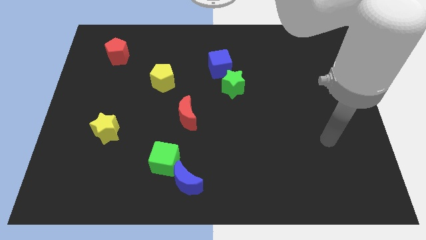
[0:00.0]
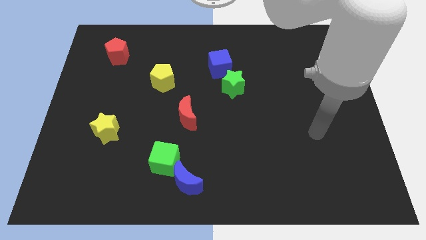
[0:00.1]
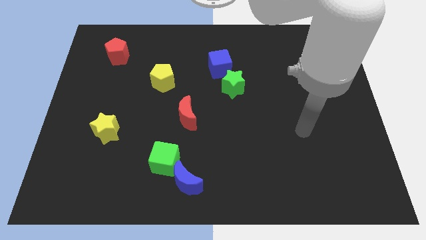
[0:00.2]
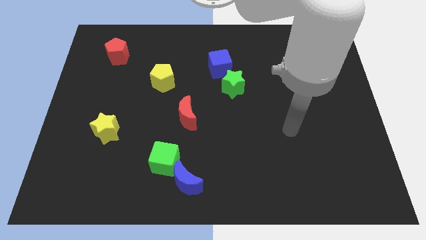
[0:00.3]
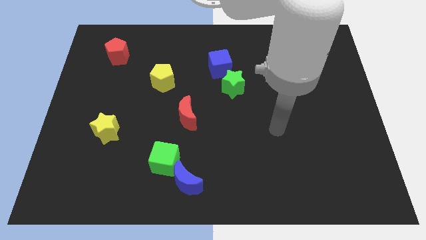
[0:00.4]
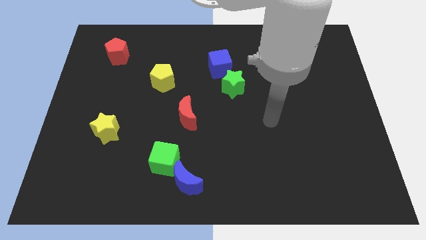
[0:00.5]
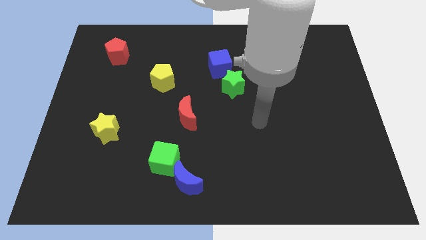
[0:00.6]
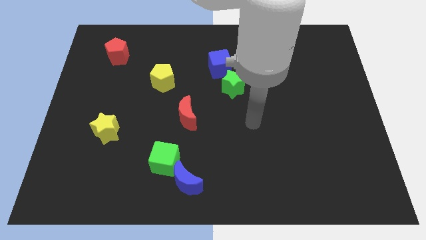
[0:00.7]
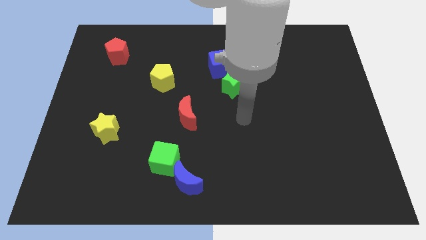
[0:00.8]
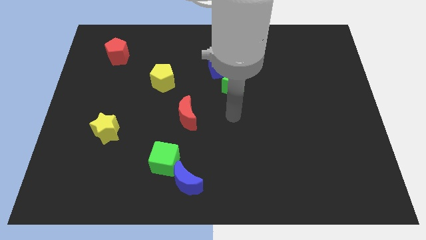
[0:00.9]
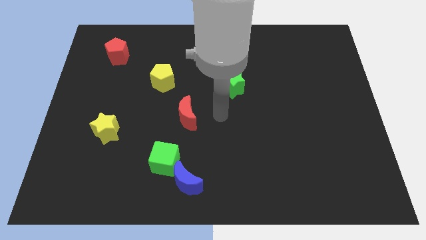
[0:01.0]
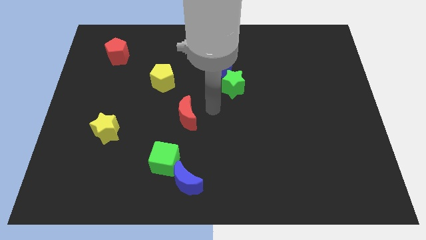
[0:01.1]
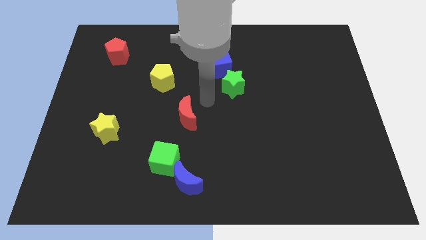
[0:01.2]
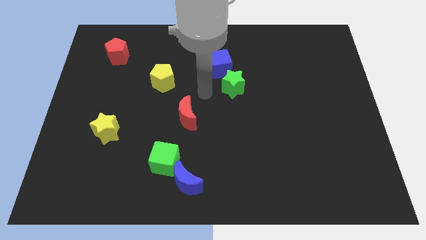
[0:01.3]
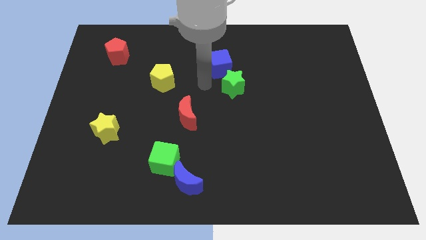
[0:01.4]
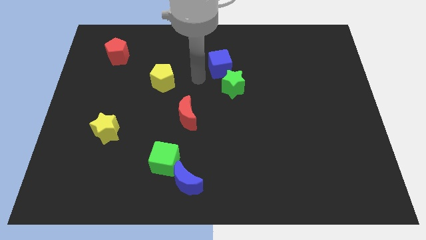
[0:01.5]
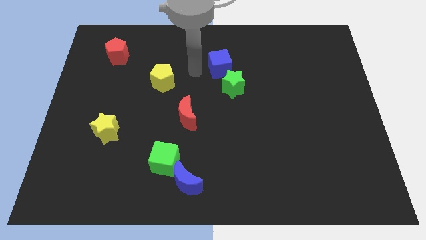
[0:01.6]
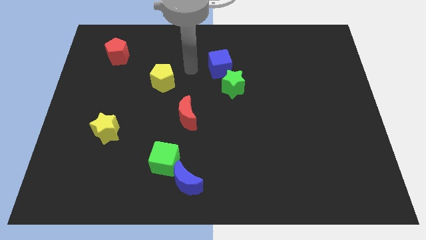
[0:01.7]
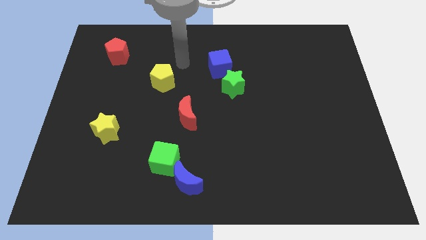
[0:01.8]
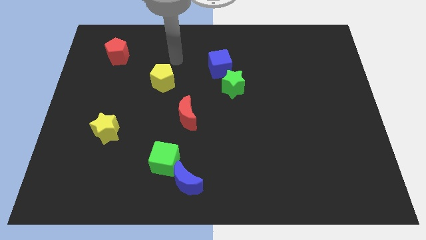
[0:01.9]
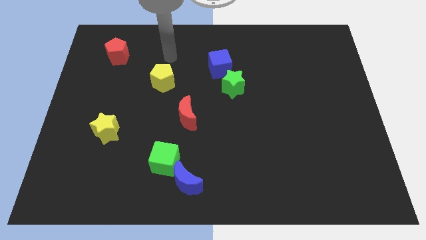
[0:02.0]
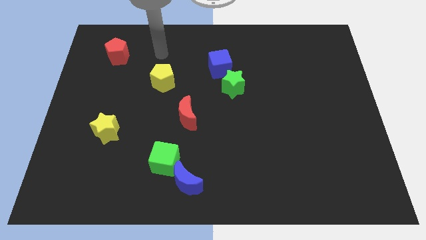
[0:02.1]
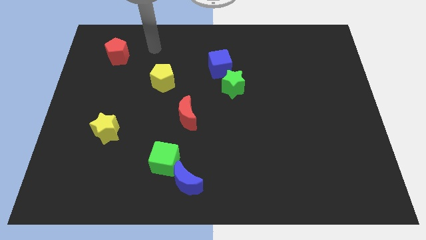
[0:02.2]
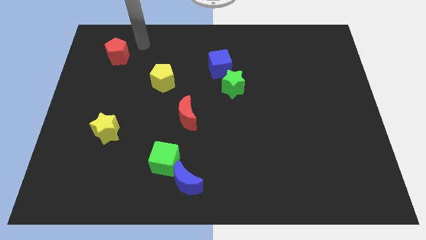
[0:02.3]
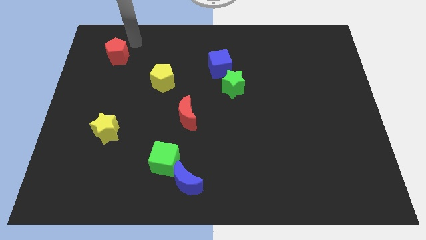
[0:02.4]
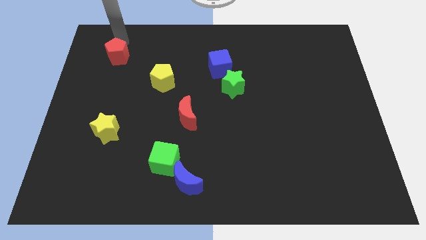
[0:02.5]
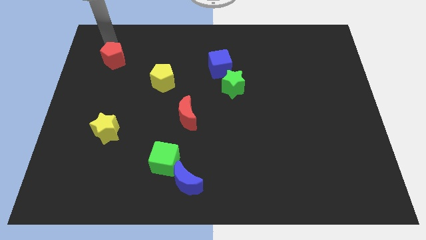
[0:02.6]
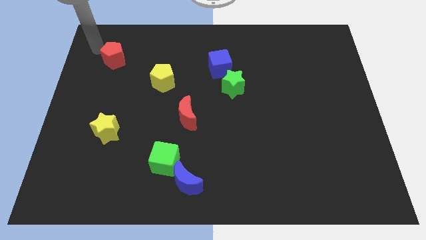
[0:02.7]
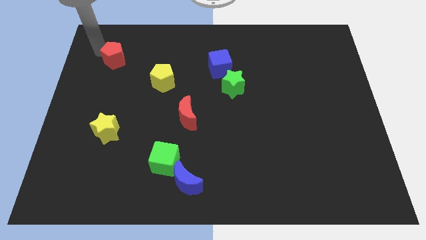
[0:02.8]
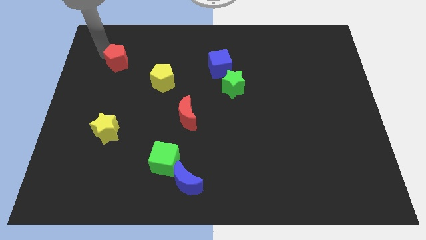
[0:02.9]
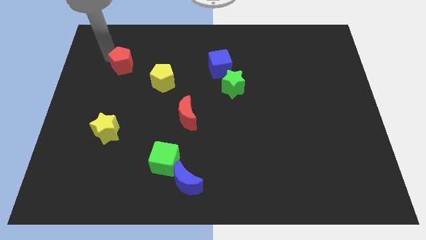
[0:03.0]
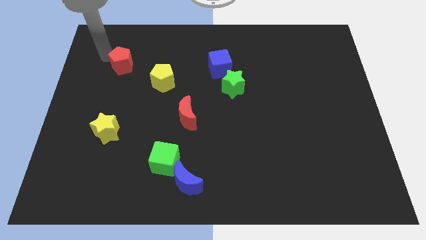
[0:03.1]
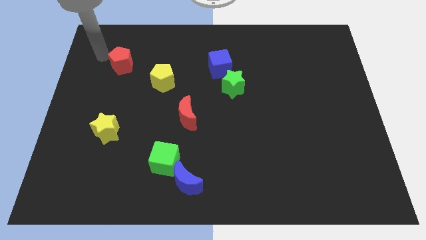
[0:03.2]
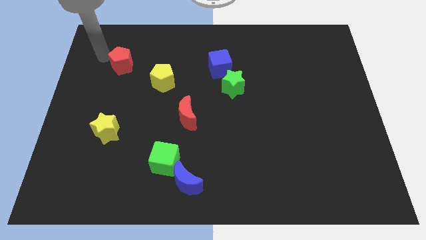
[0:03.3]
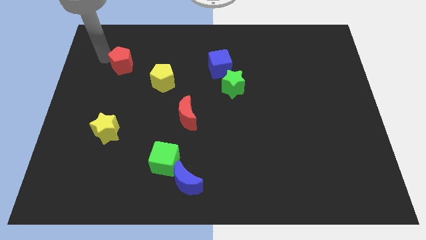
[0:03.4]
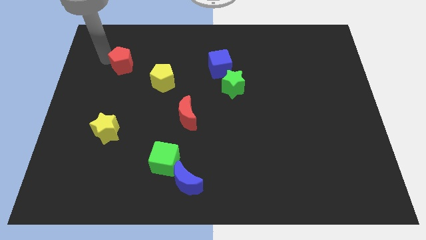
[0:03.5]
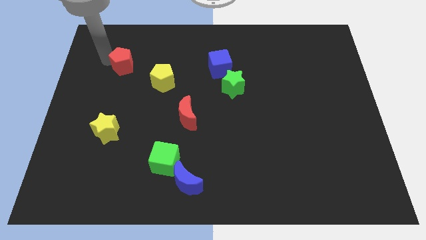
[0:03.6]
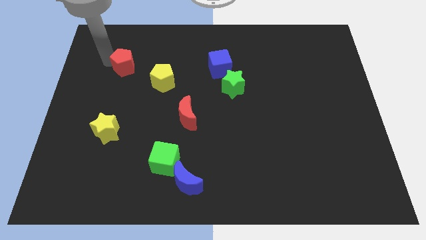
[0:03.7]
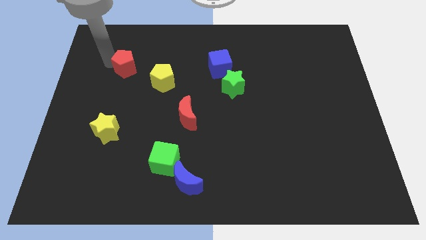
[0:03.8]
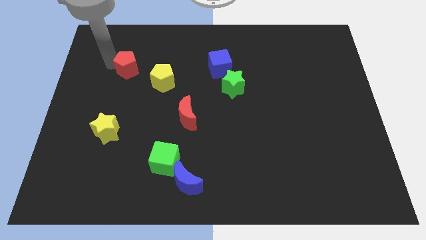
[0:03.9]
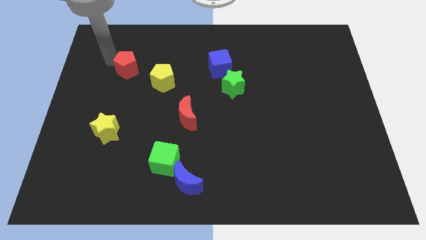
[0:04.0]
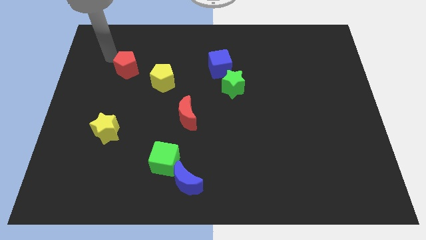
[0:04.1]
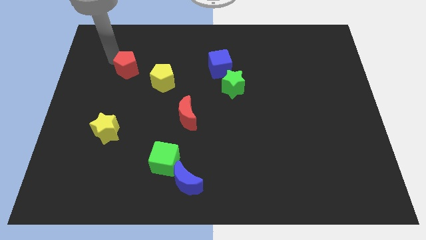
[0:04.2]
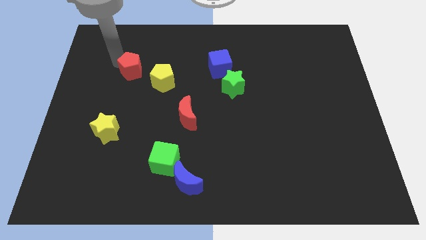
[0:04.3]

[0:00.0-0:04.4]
push the red pentagon a little down and then right

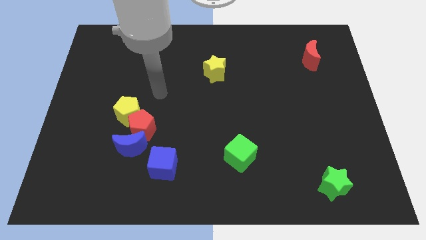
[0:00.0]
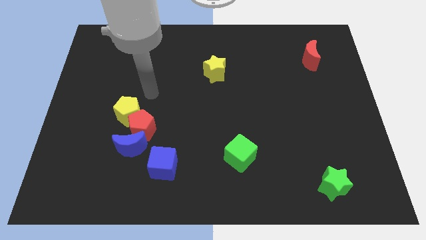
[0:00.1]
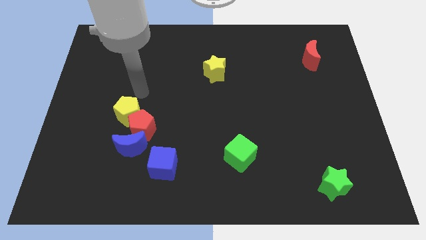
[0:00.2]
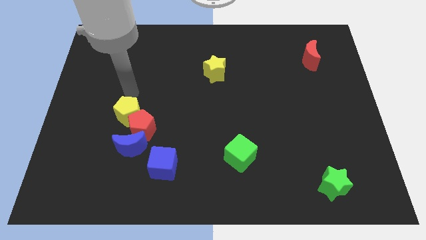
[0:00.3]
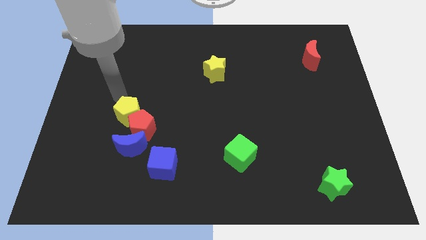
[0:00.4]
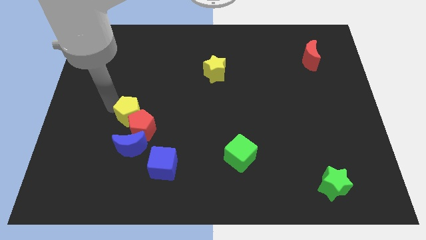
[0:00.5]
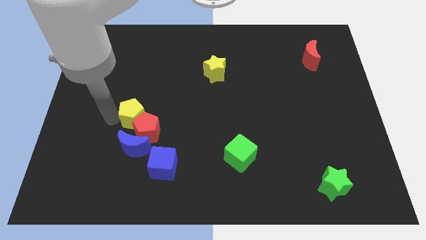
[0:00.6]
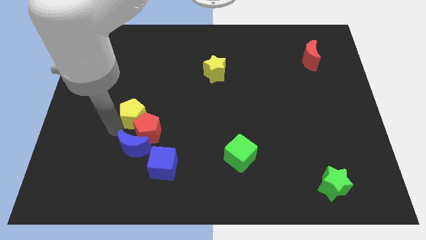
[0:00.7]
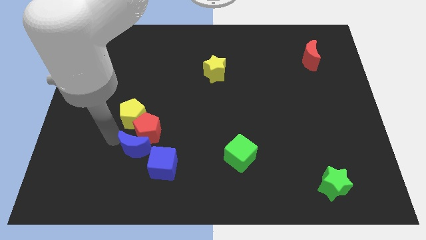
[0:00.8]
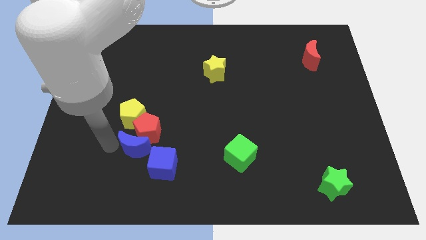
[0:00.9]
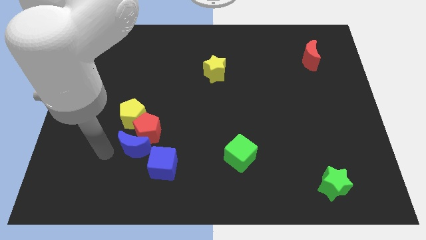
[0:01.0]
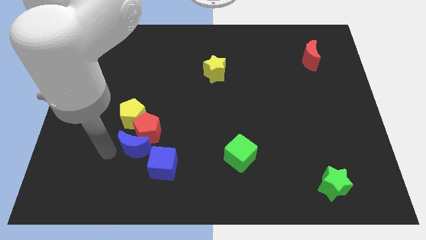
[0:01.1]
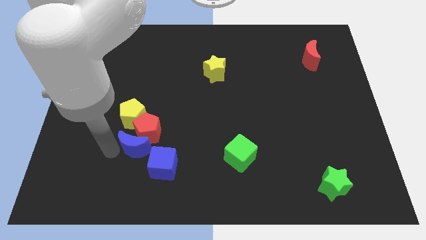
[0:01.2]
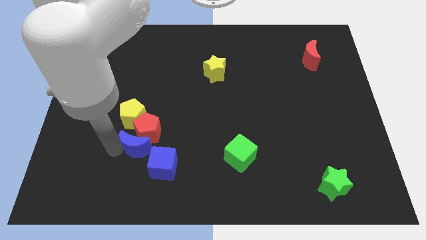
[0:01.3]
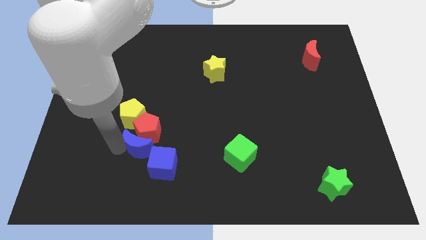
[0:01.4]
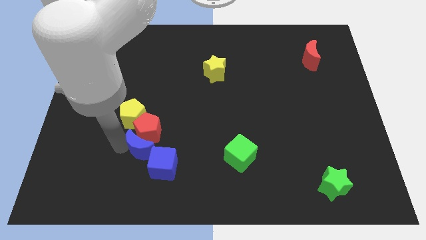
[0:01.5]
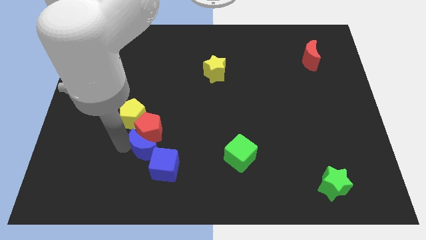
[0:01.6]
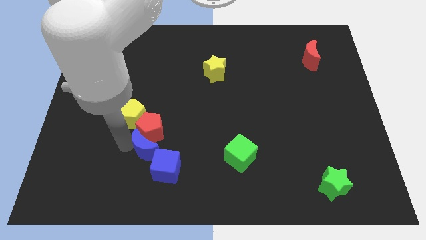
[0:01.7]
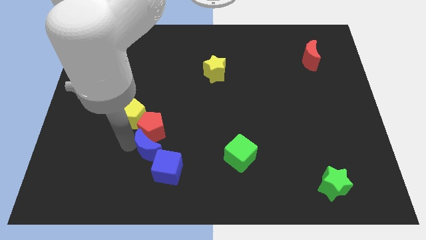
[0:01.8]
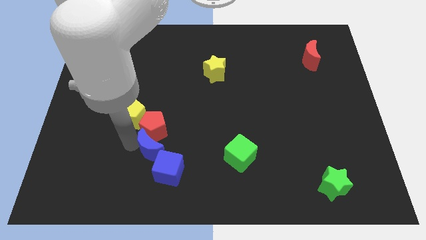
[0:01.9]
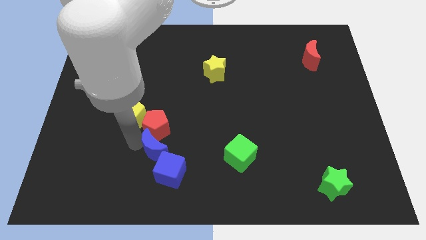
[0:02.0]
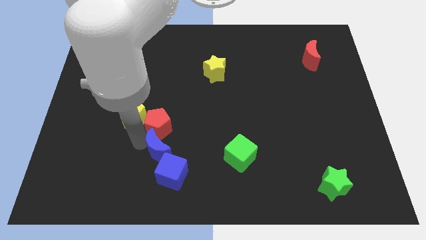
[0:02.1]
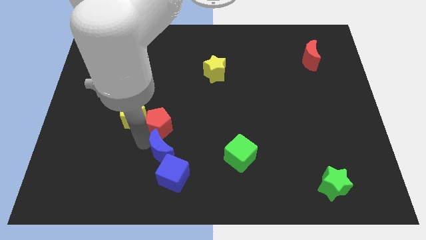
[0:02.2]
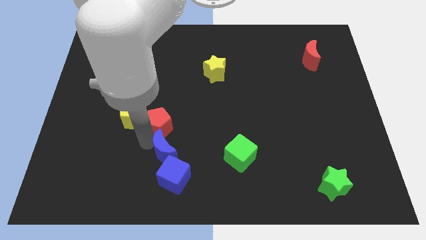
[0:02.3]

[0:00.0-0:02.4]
slide the blue moon somewhat to the right

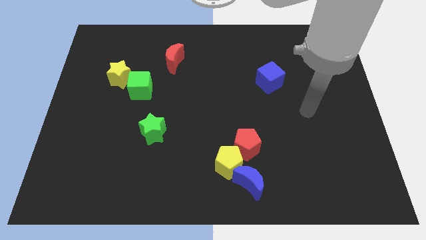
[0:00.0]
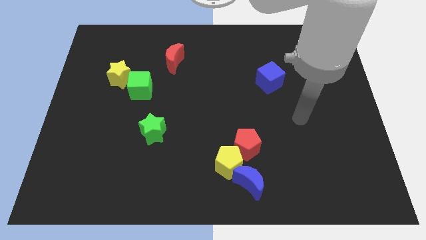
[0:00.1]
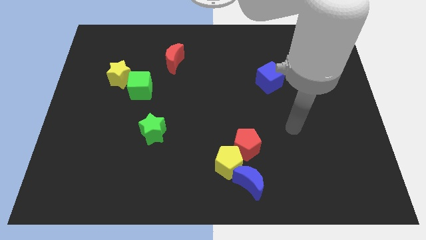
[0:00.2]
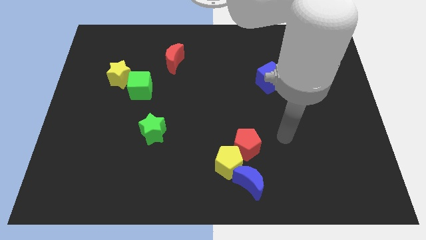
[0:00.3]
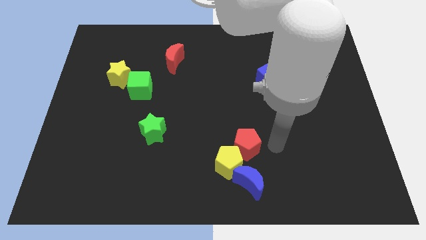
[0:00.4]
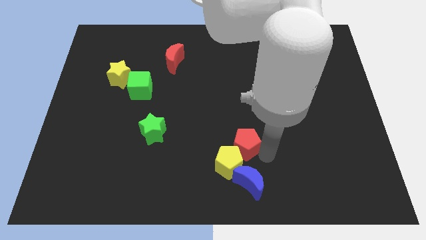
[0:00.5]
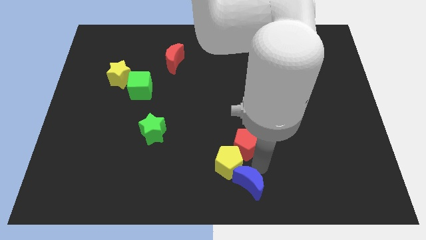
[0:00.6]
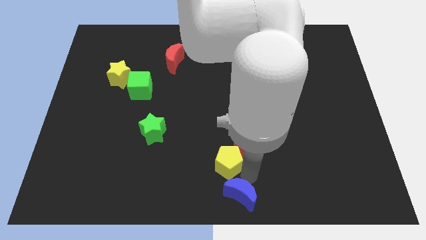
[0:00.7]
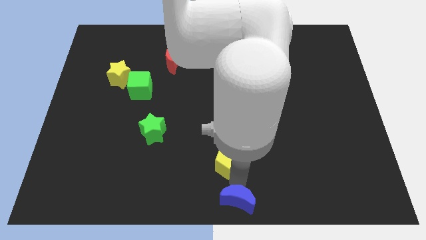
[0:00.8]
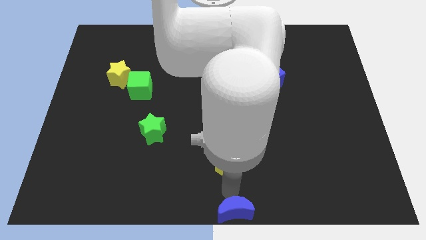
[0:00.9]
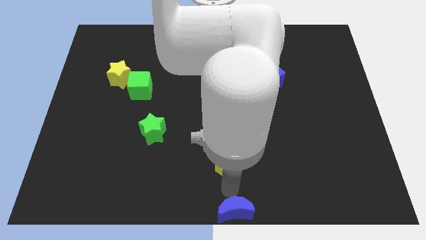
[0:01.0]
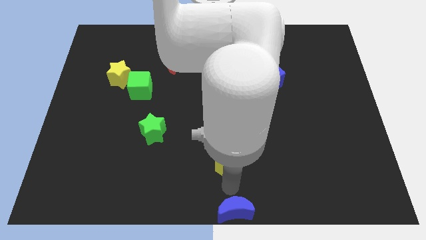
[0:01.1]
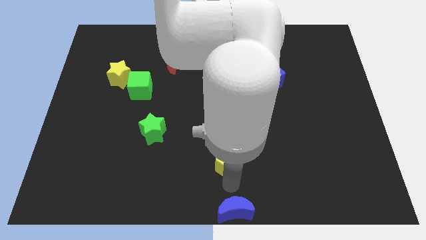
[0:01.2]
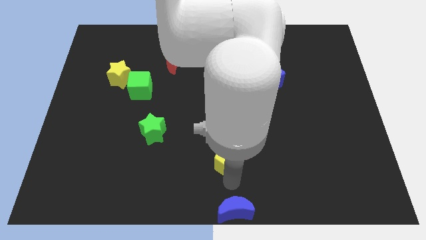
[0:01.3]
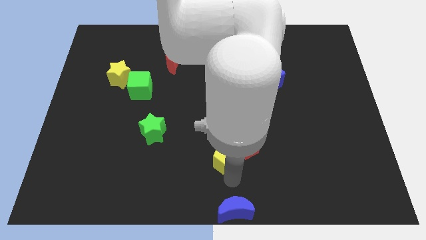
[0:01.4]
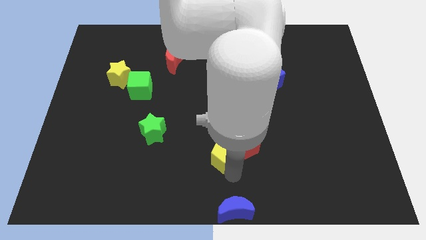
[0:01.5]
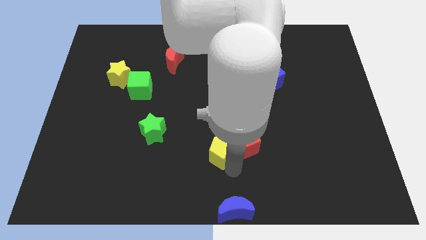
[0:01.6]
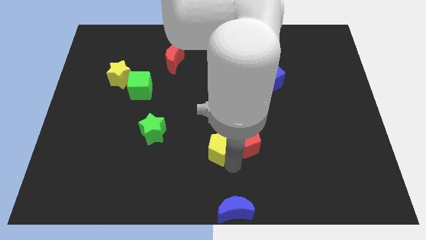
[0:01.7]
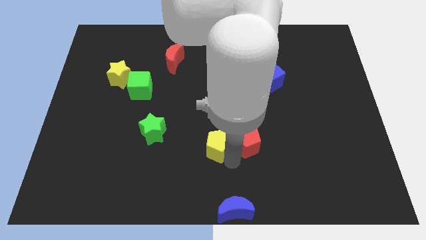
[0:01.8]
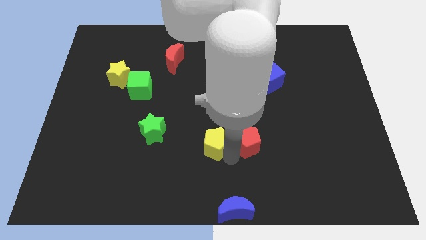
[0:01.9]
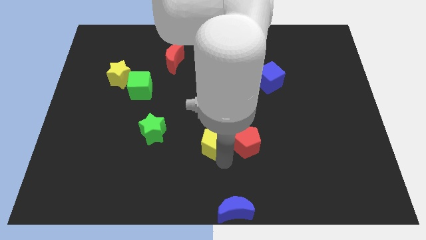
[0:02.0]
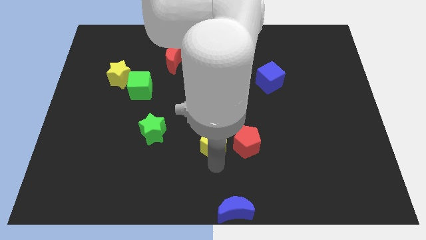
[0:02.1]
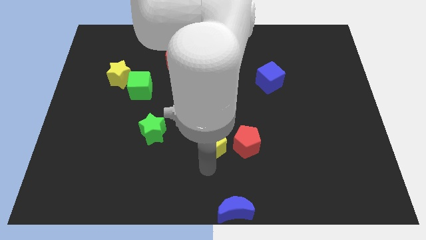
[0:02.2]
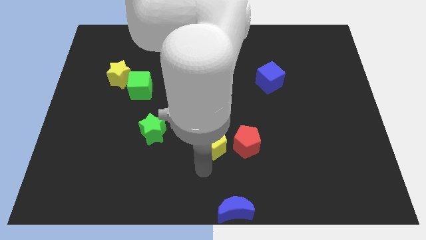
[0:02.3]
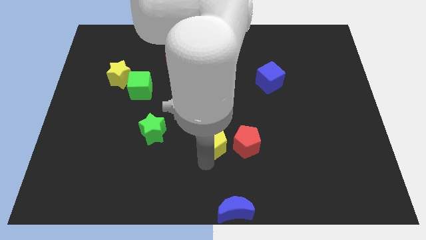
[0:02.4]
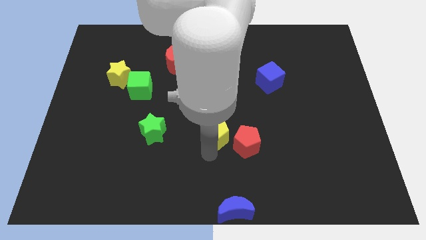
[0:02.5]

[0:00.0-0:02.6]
move the yellow pentagon a bit up
